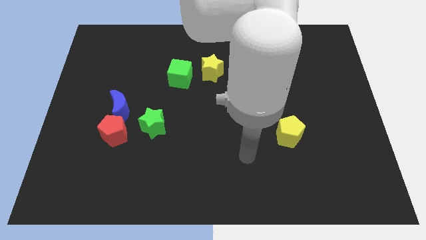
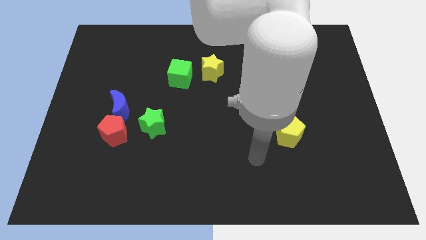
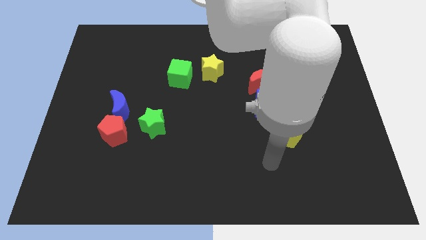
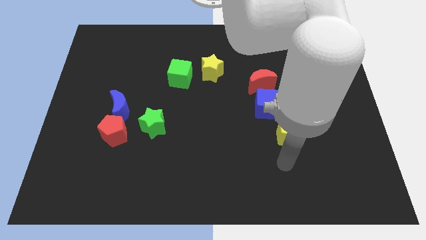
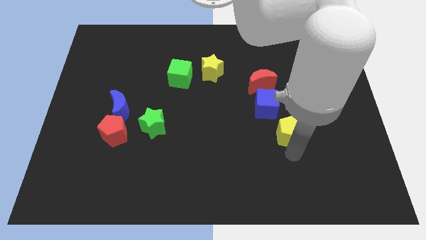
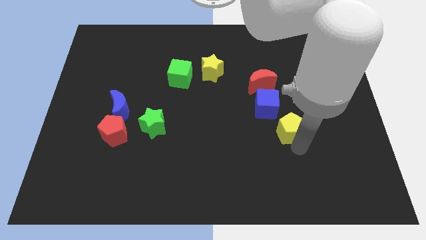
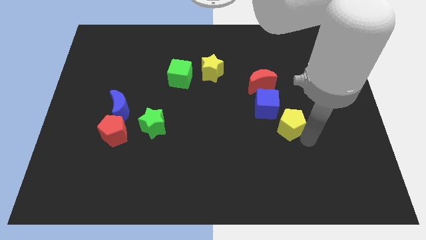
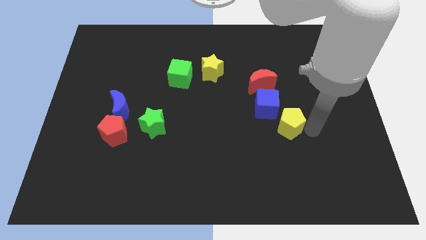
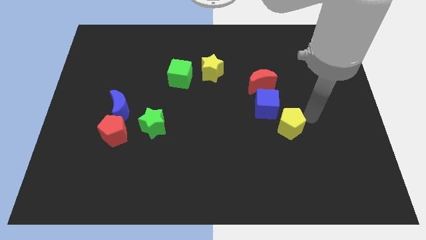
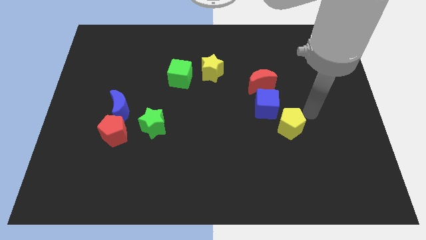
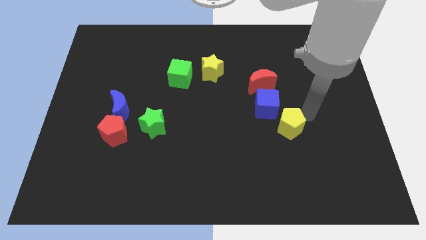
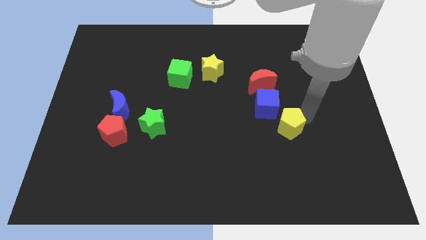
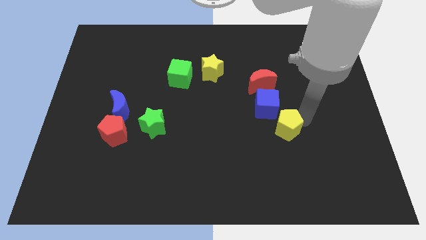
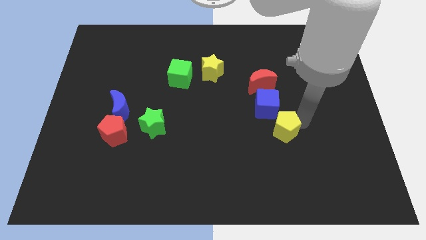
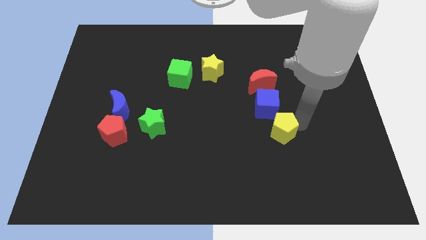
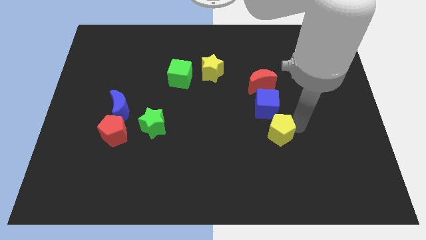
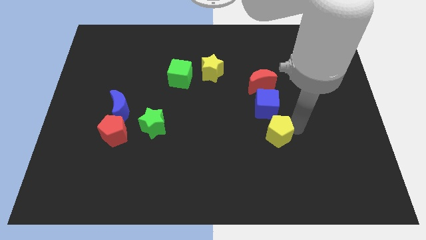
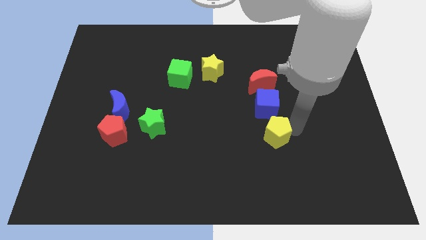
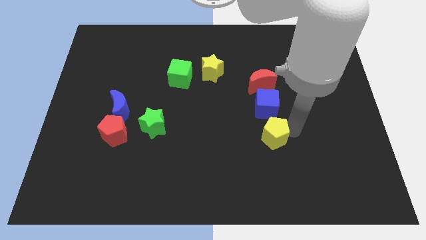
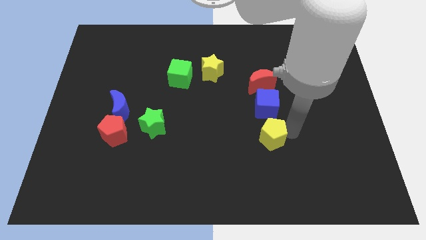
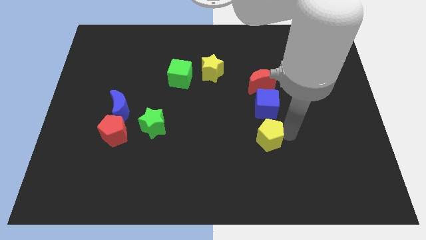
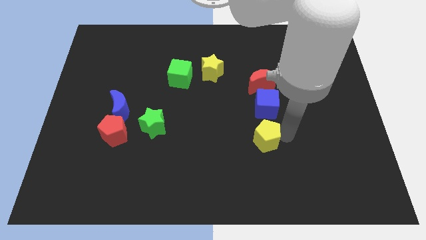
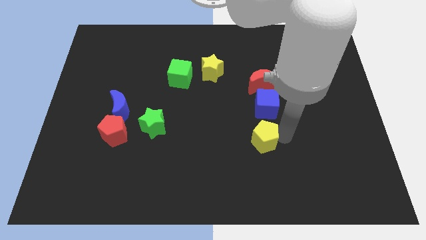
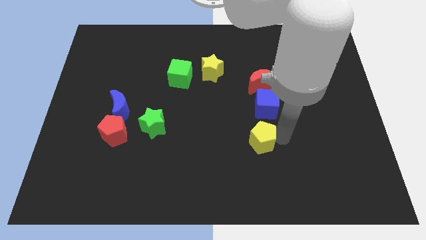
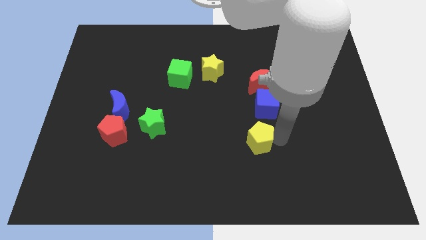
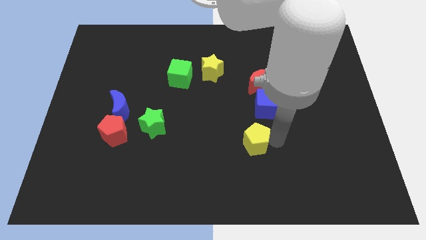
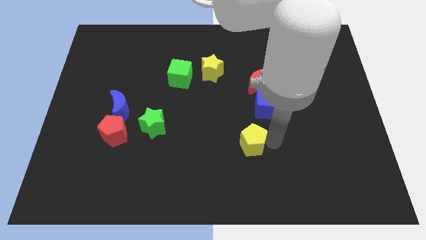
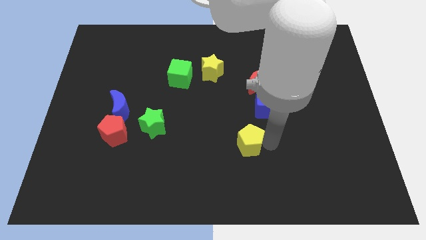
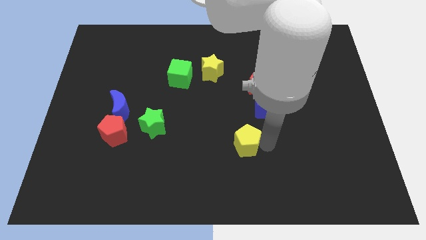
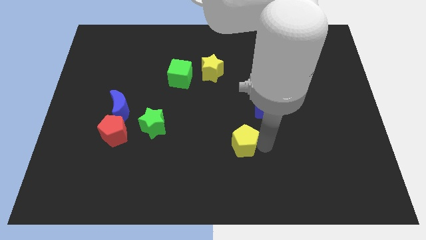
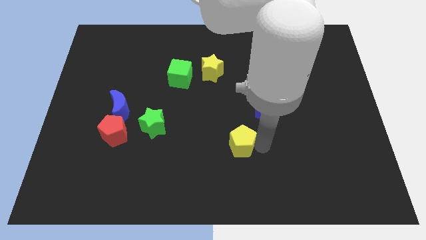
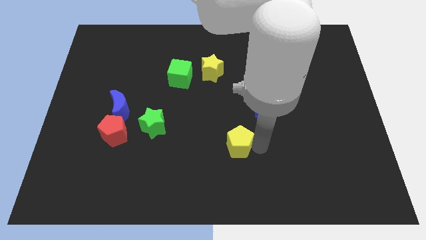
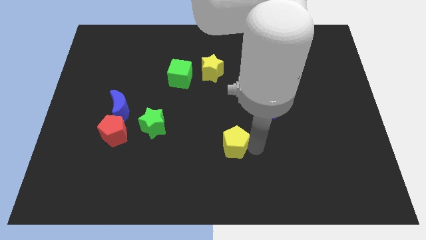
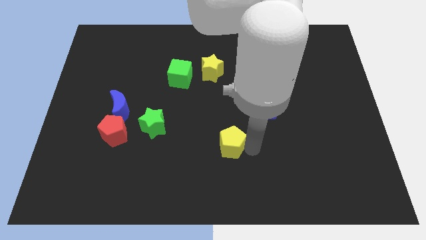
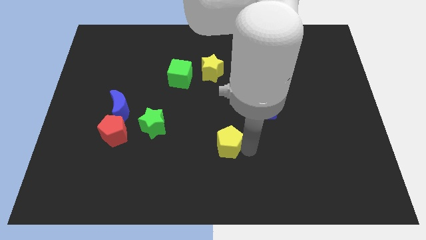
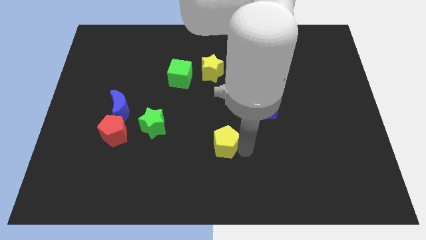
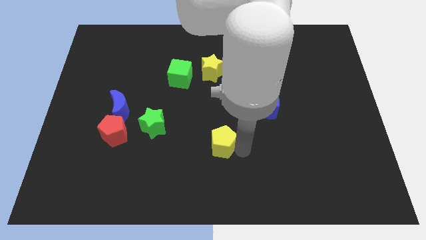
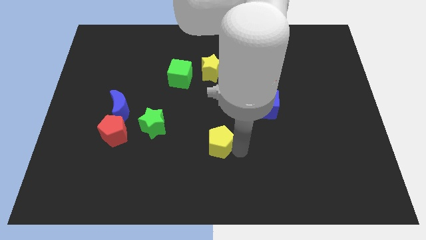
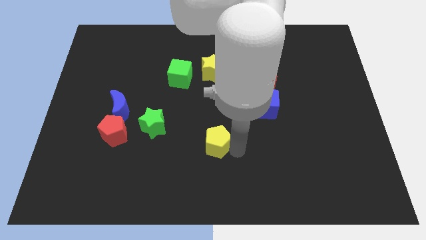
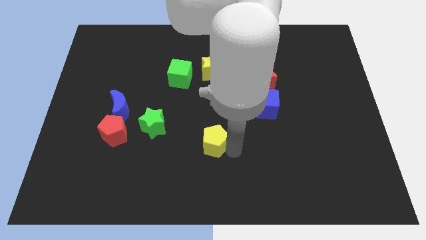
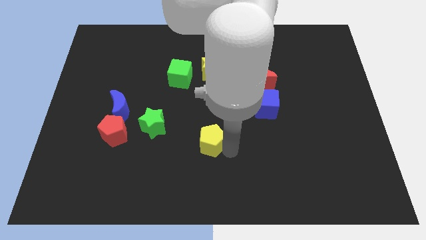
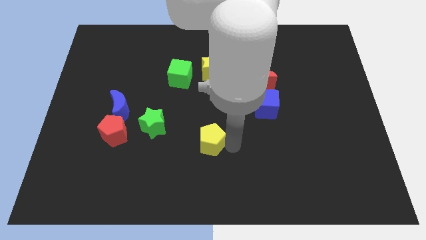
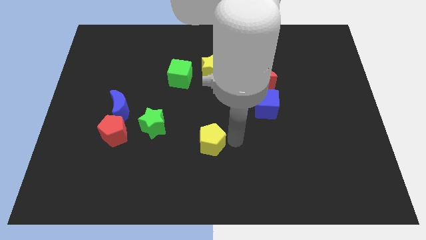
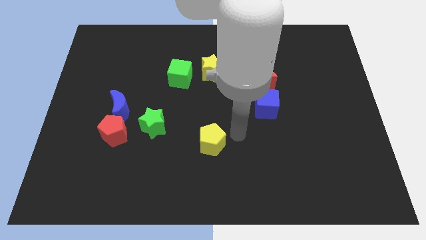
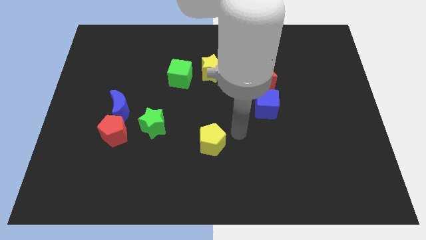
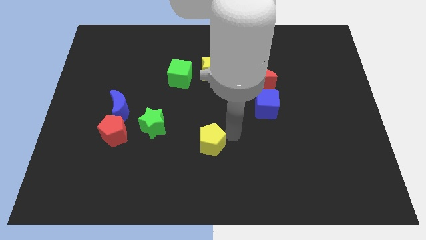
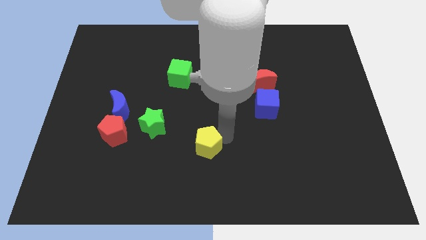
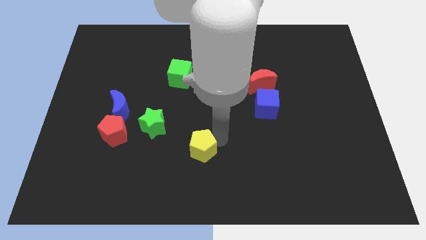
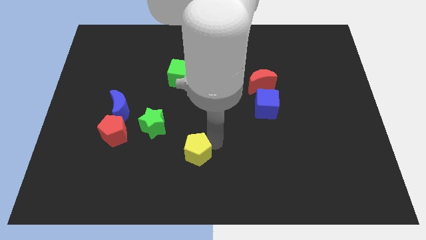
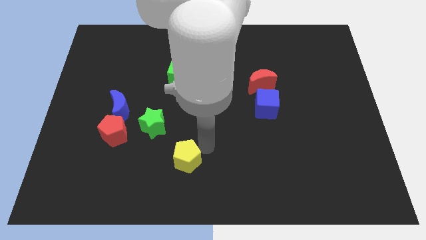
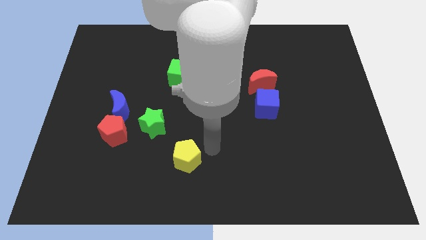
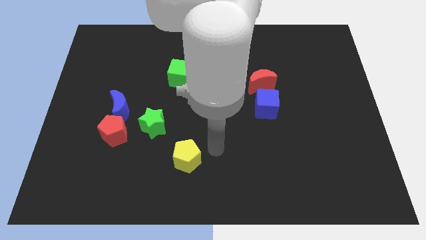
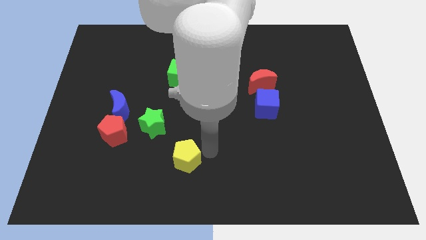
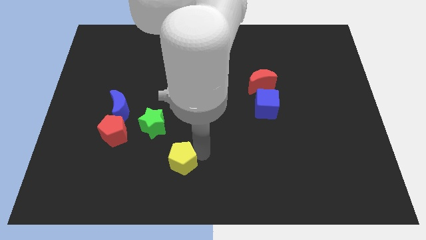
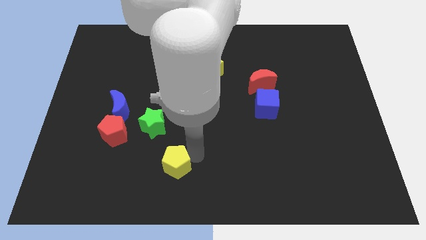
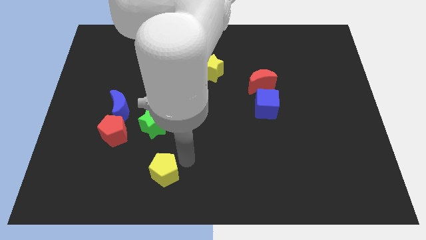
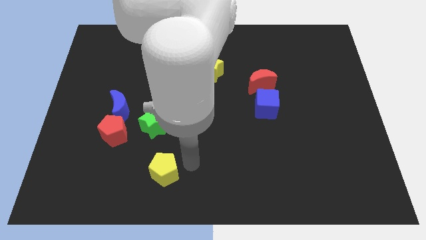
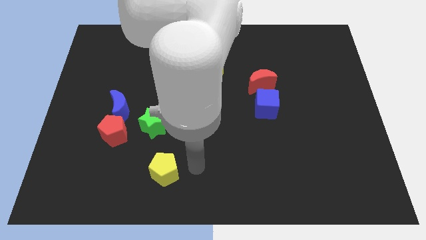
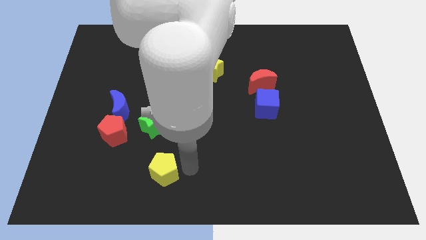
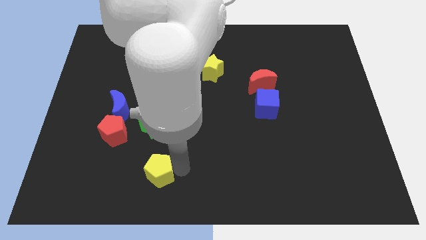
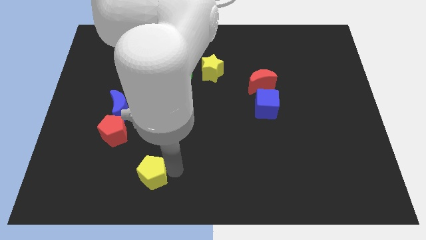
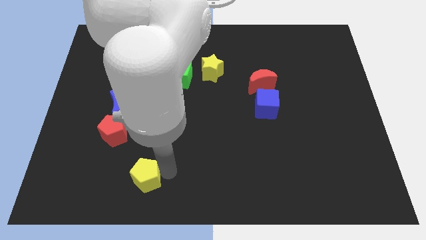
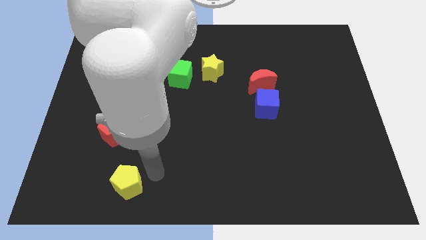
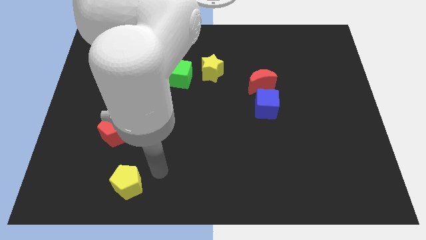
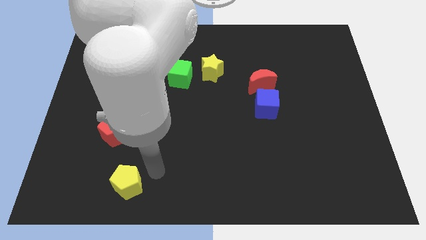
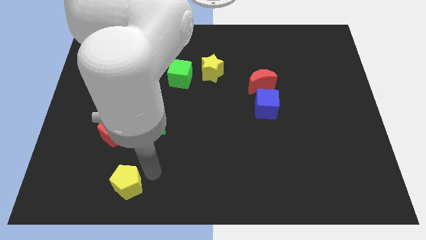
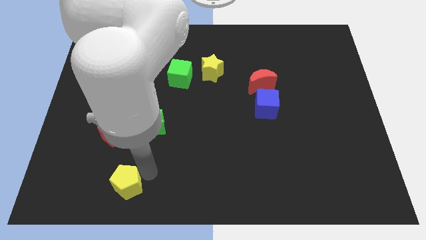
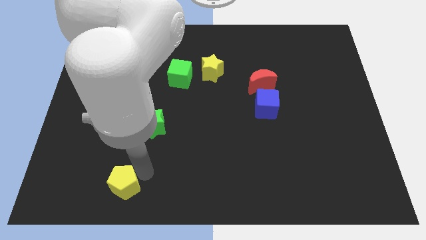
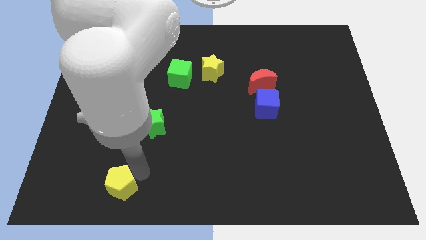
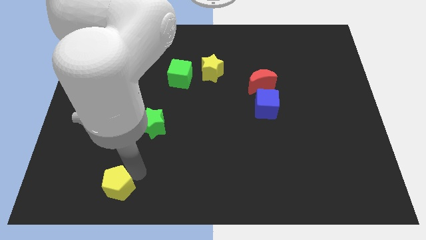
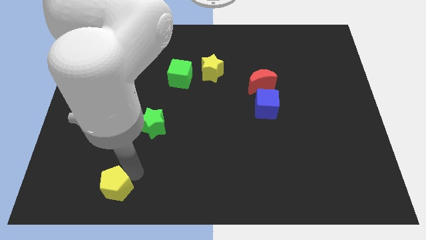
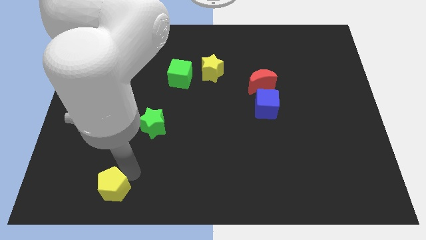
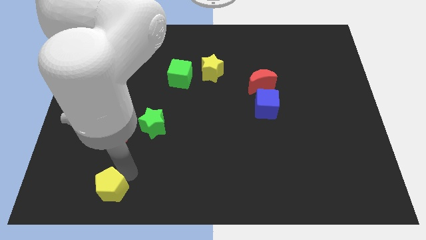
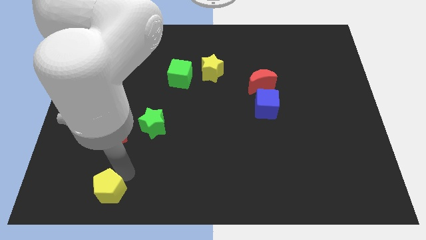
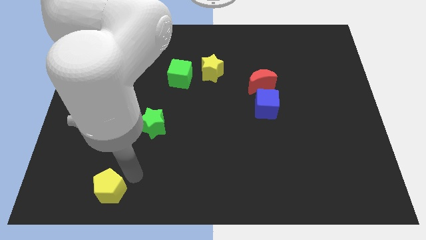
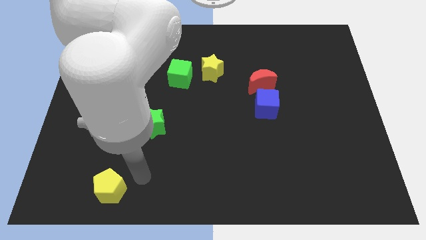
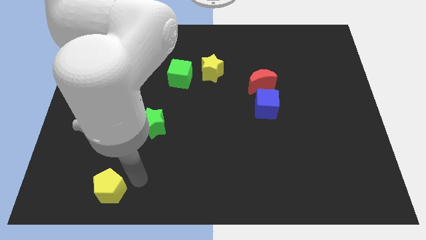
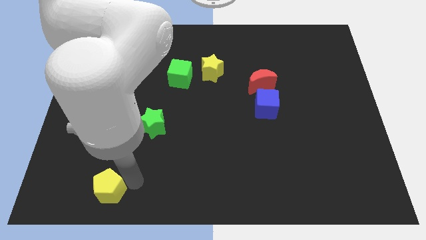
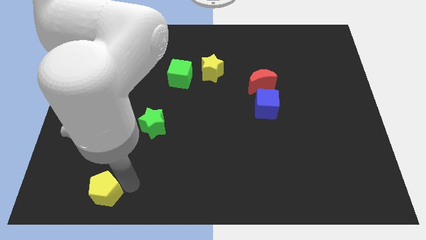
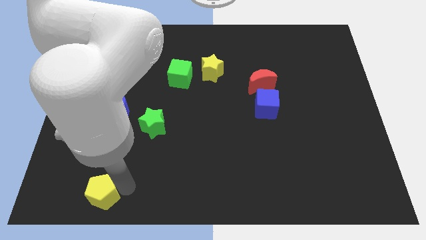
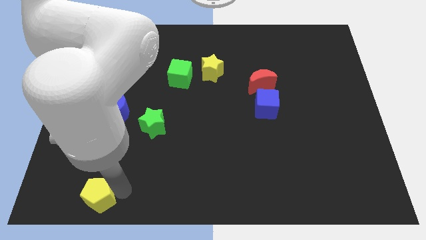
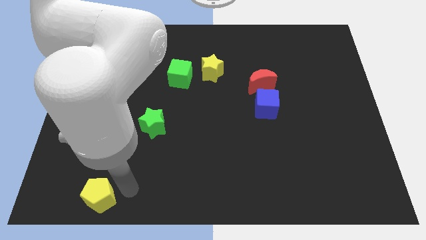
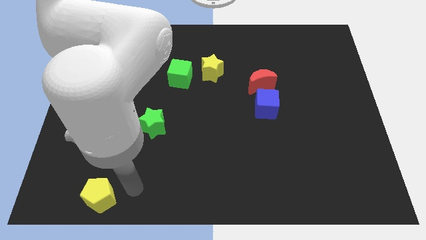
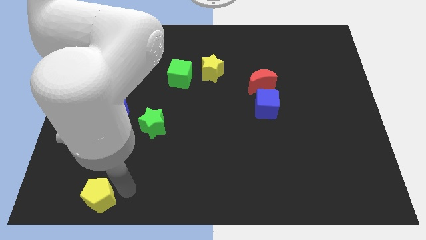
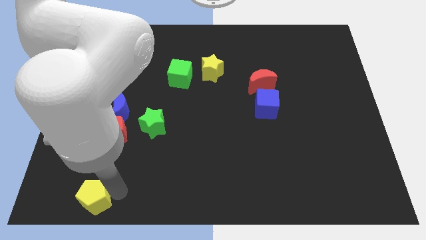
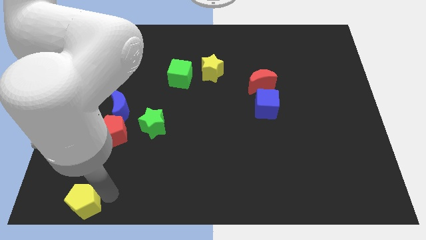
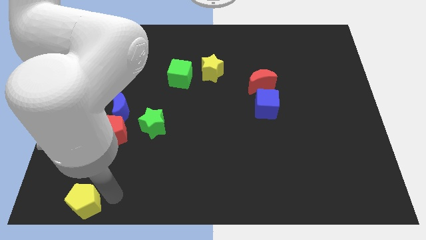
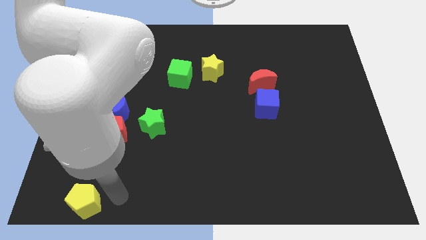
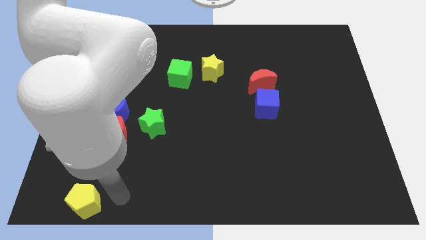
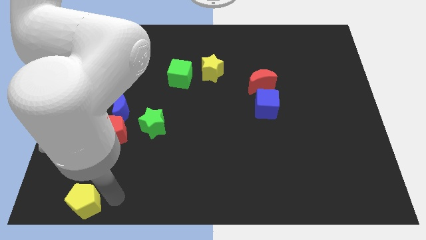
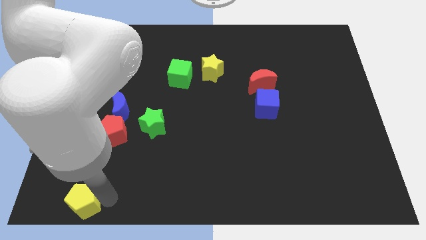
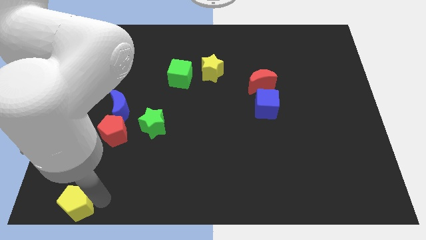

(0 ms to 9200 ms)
slide the yellow pentagon to the bottom left corner
